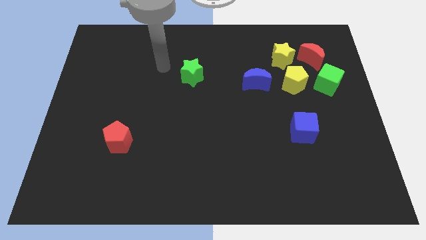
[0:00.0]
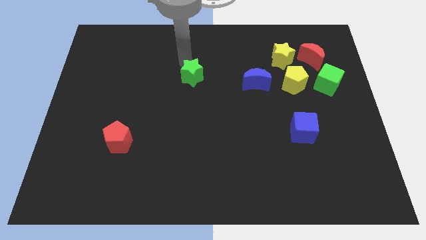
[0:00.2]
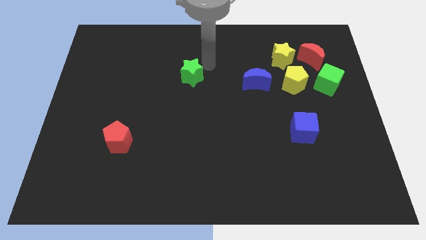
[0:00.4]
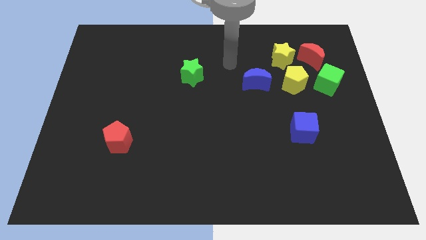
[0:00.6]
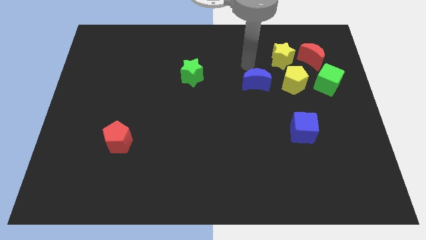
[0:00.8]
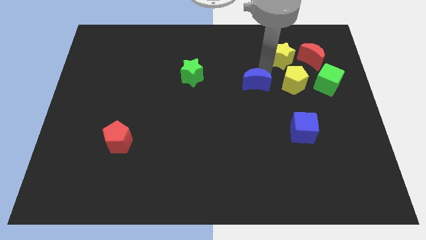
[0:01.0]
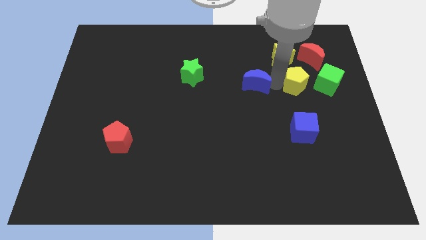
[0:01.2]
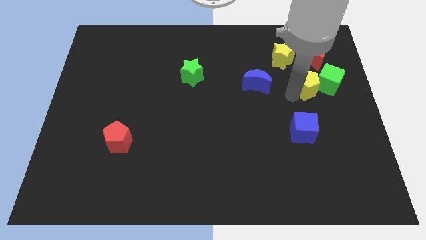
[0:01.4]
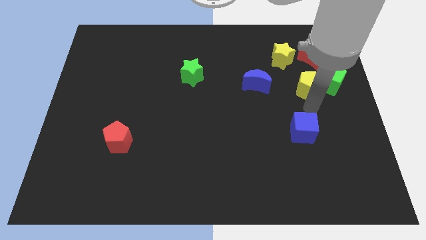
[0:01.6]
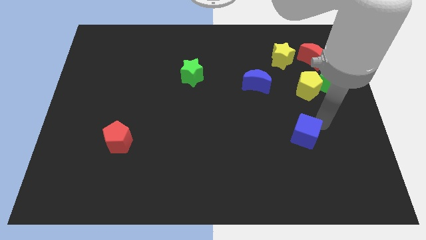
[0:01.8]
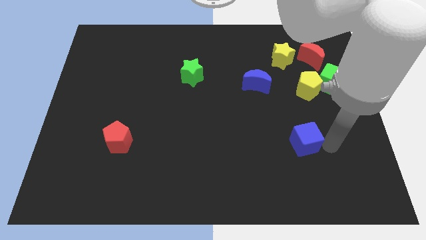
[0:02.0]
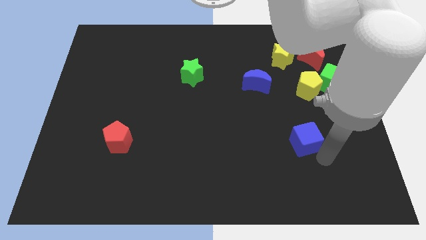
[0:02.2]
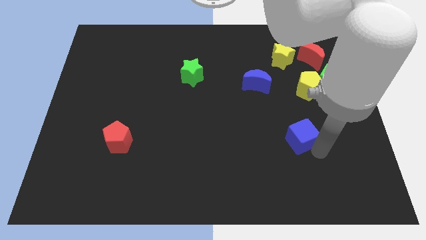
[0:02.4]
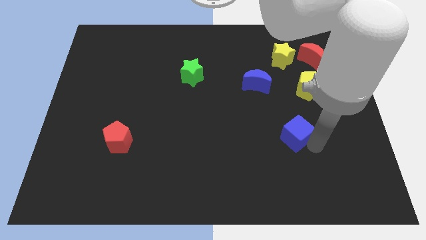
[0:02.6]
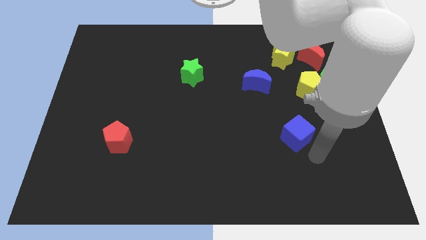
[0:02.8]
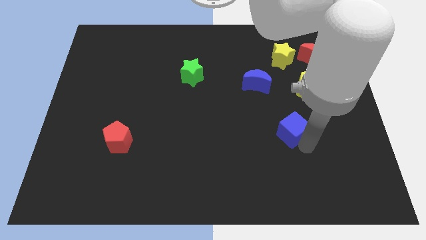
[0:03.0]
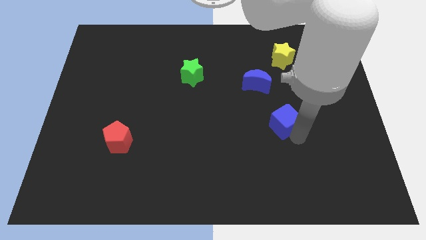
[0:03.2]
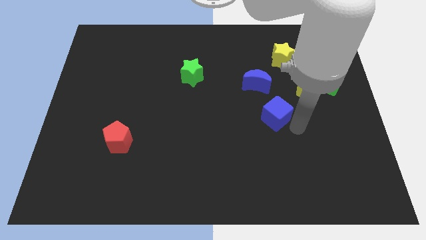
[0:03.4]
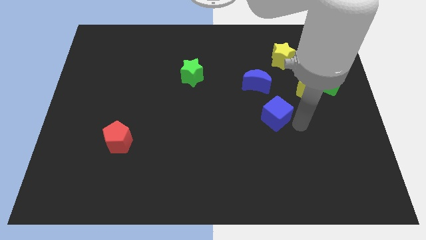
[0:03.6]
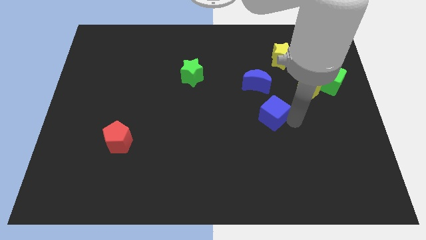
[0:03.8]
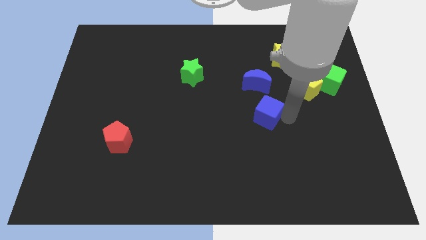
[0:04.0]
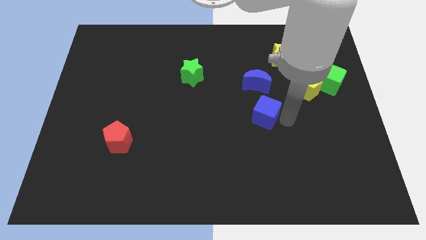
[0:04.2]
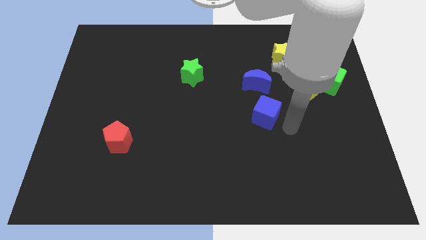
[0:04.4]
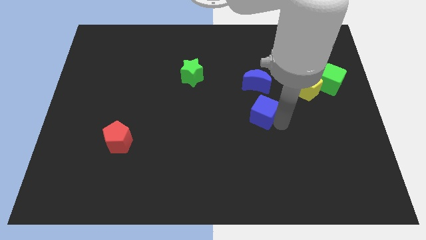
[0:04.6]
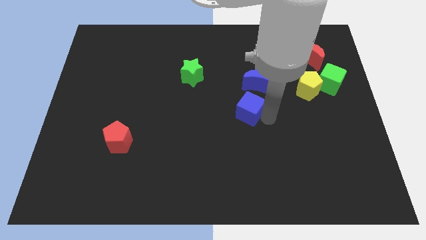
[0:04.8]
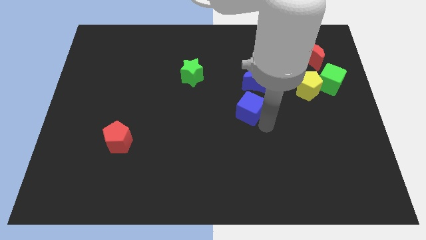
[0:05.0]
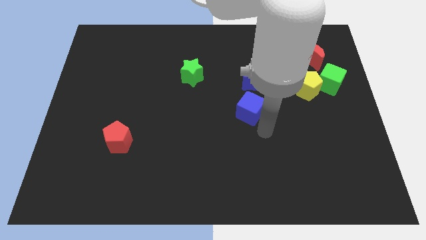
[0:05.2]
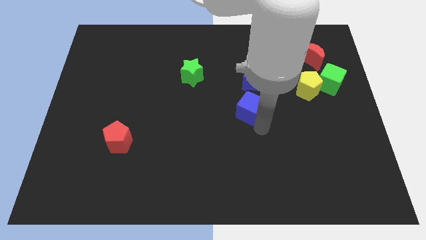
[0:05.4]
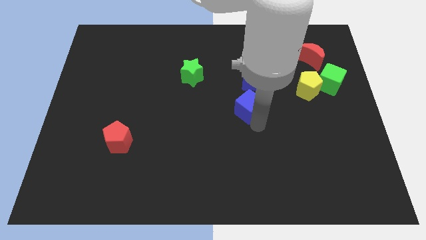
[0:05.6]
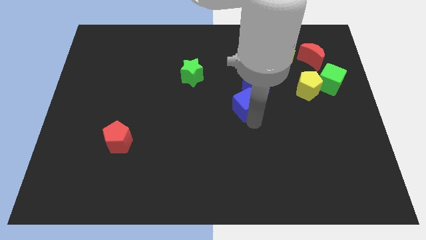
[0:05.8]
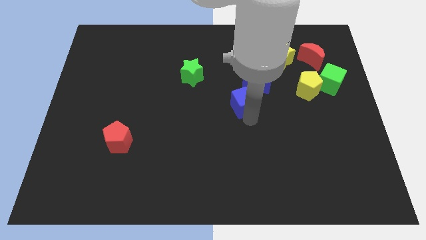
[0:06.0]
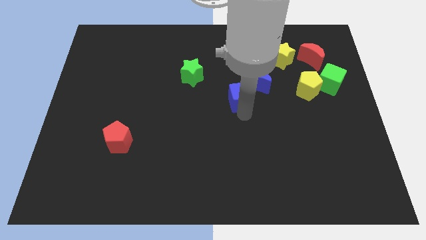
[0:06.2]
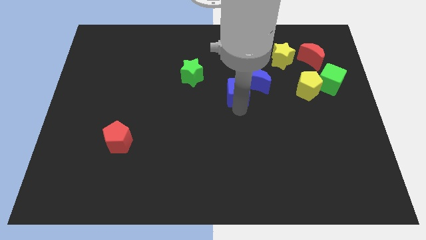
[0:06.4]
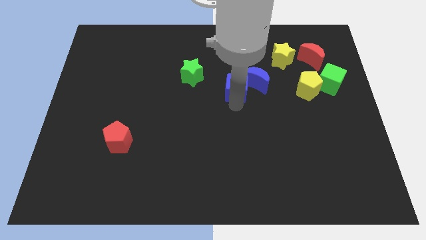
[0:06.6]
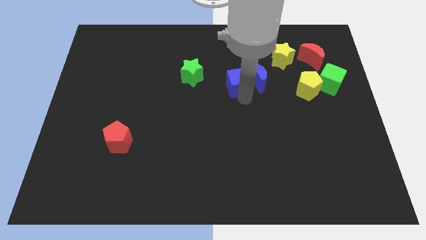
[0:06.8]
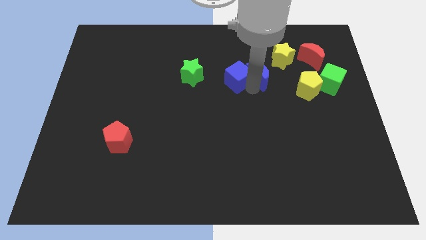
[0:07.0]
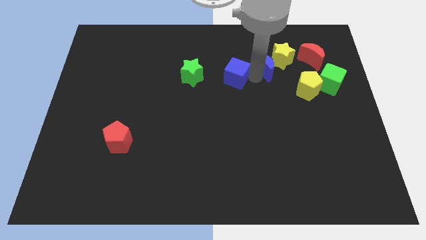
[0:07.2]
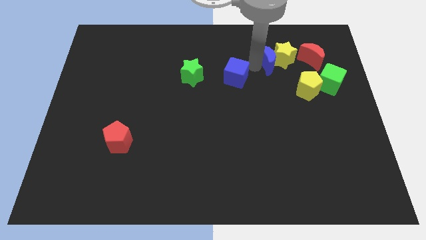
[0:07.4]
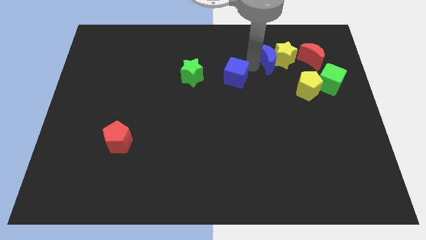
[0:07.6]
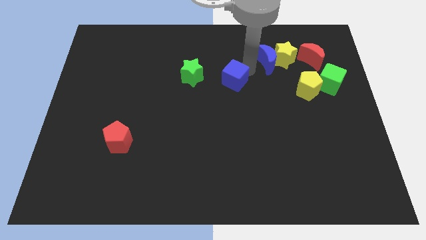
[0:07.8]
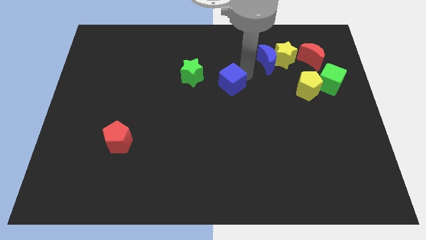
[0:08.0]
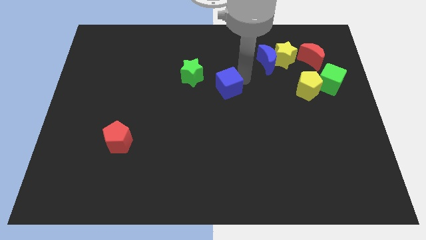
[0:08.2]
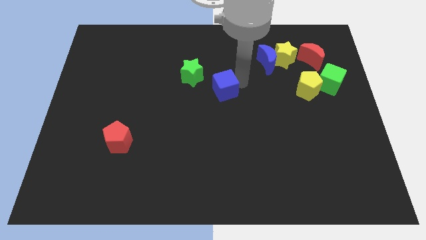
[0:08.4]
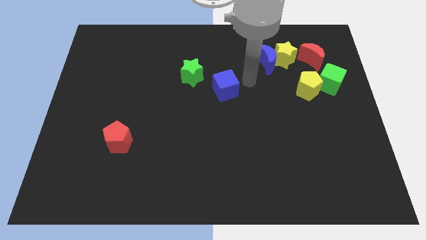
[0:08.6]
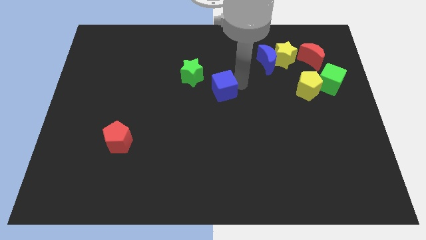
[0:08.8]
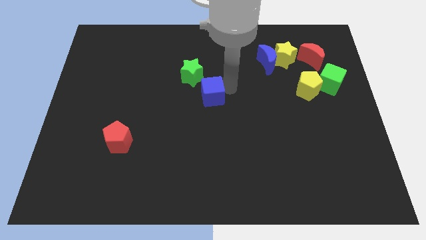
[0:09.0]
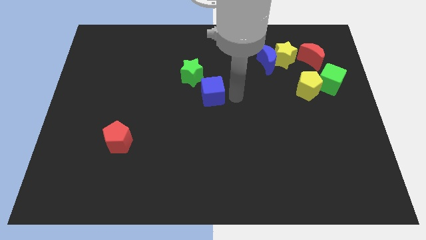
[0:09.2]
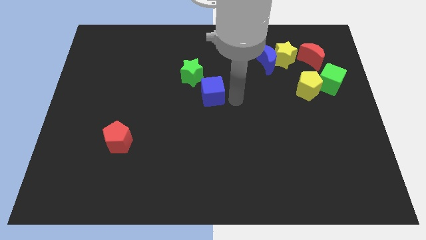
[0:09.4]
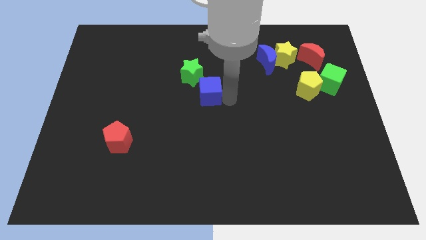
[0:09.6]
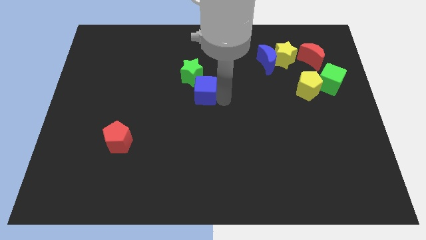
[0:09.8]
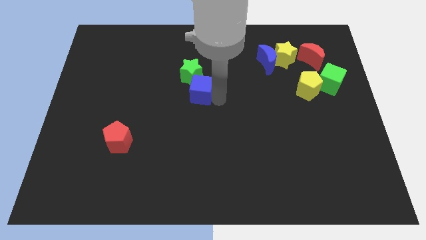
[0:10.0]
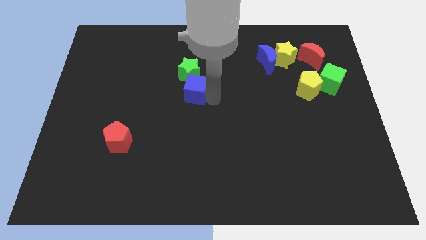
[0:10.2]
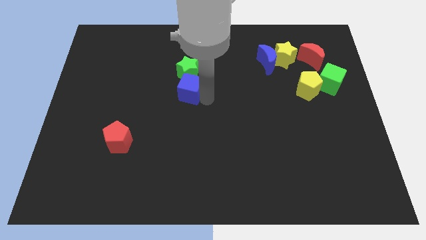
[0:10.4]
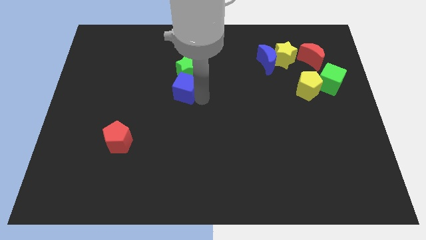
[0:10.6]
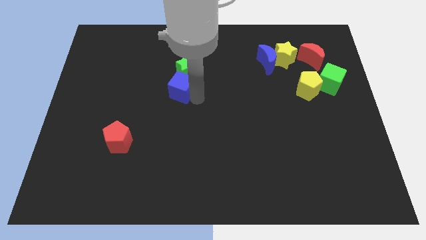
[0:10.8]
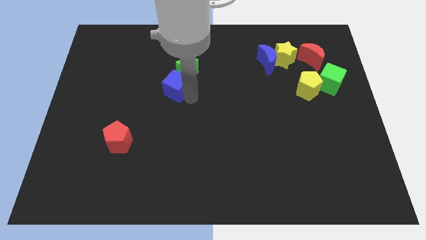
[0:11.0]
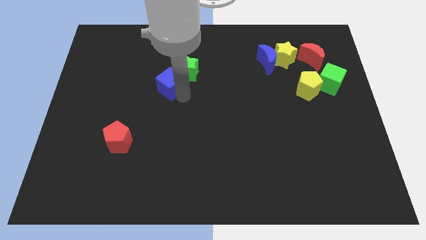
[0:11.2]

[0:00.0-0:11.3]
move the blue cube just left of the green star

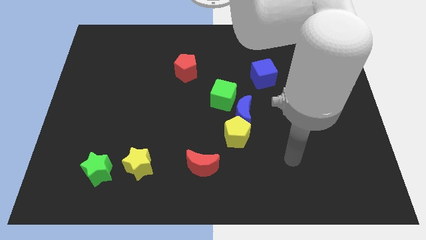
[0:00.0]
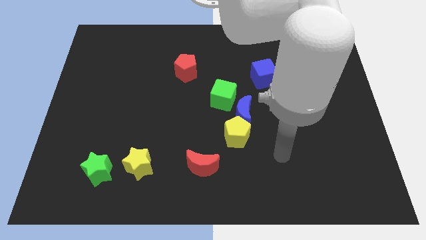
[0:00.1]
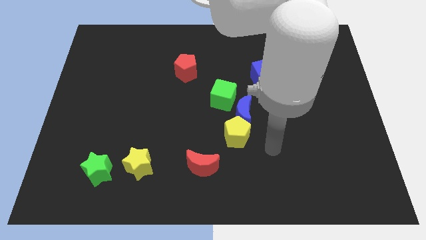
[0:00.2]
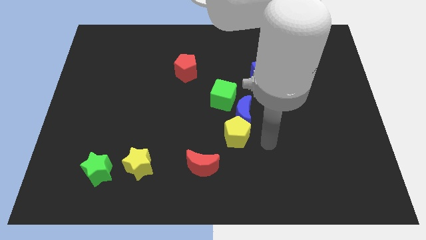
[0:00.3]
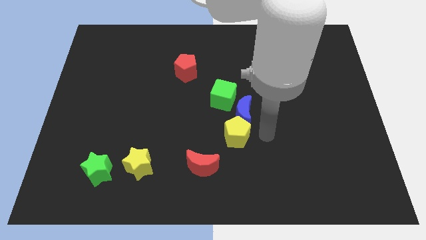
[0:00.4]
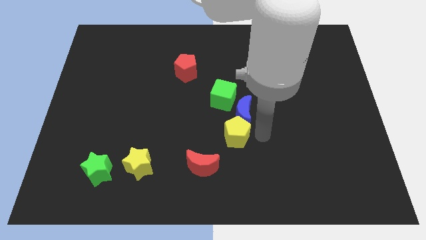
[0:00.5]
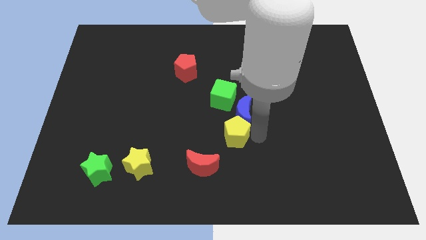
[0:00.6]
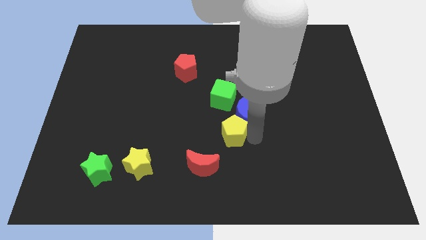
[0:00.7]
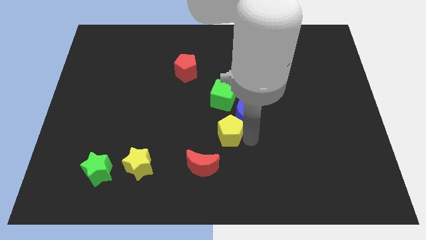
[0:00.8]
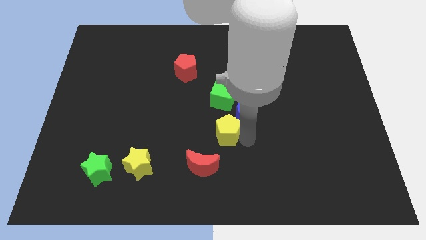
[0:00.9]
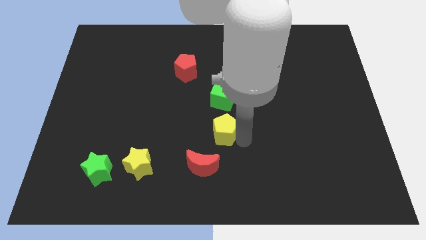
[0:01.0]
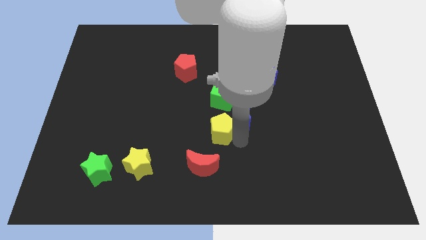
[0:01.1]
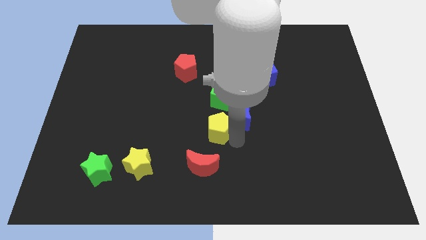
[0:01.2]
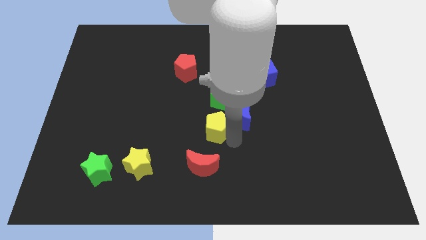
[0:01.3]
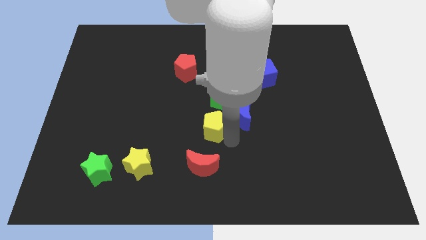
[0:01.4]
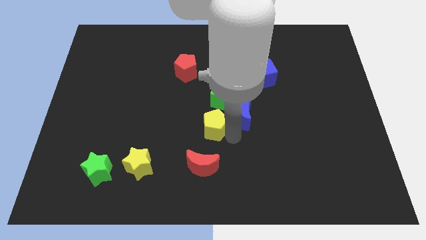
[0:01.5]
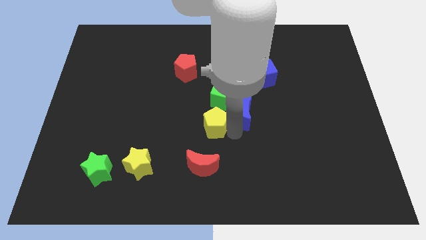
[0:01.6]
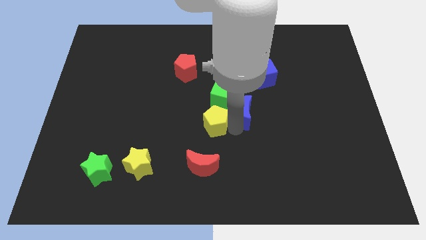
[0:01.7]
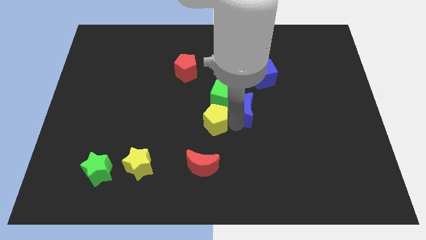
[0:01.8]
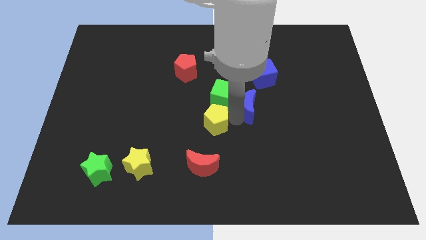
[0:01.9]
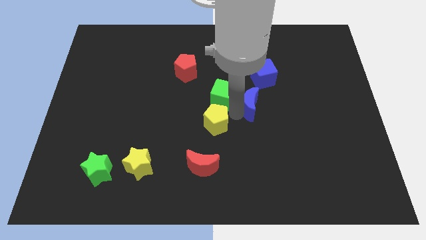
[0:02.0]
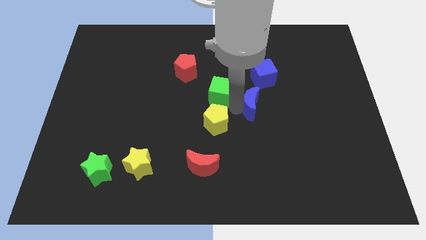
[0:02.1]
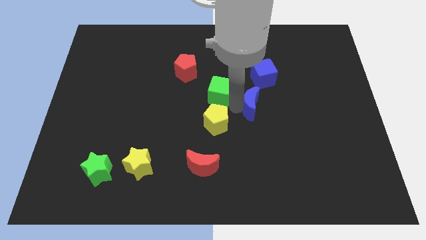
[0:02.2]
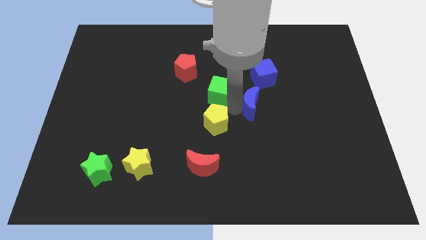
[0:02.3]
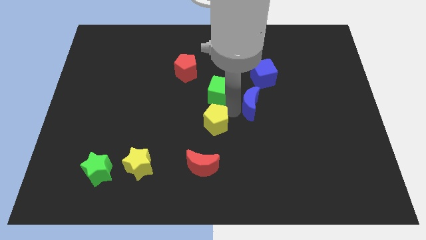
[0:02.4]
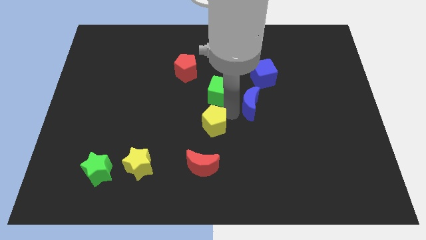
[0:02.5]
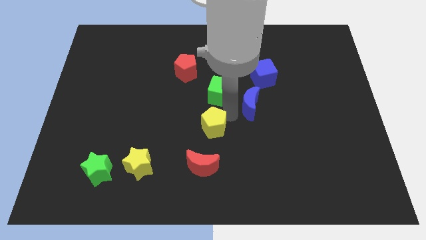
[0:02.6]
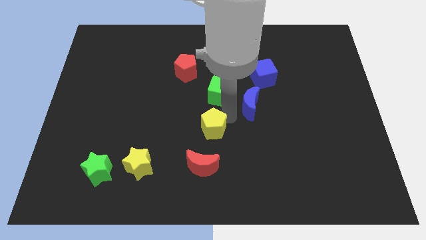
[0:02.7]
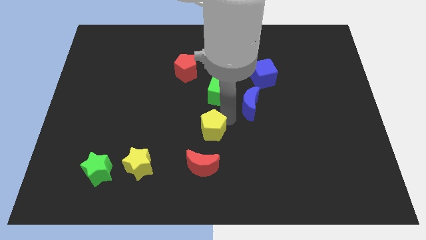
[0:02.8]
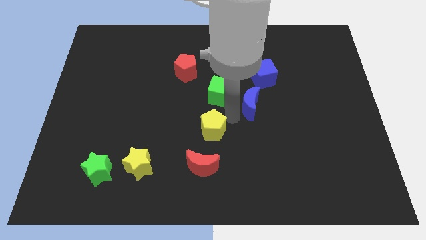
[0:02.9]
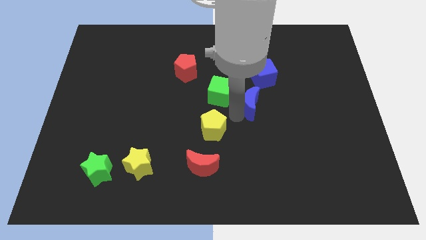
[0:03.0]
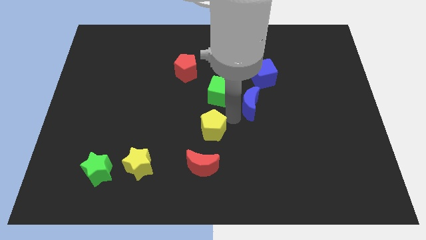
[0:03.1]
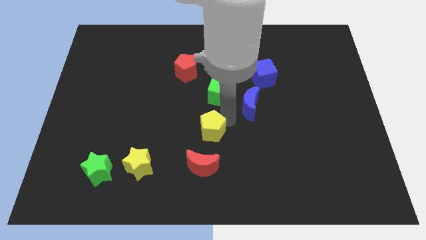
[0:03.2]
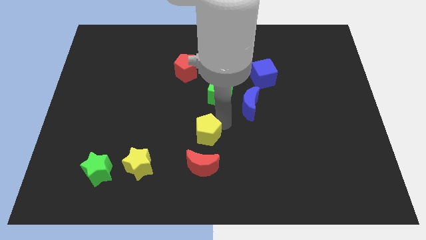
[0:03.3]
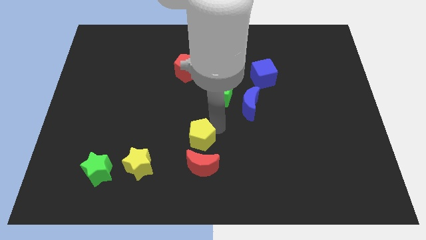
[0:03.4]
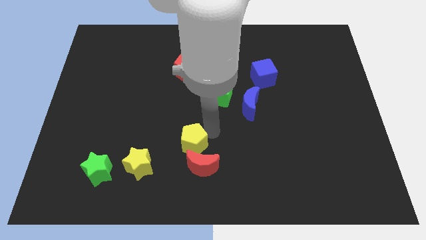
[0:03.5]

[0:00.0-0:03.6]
push the yellow pentagon diagonally up and to the left of the red moon
